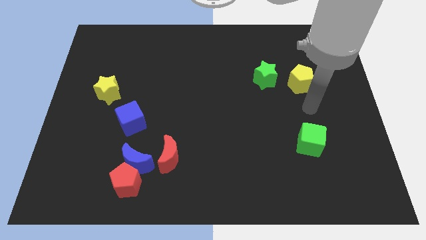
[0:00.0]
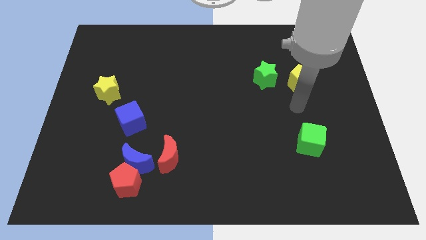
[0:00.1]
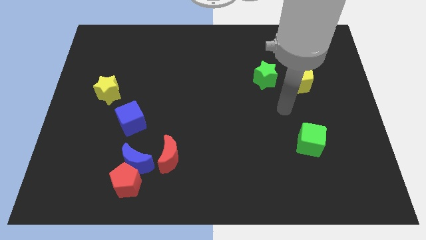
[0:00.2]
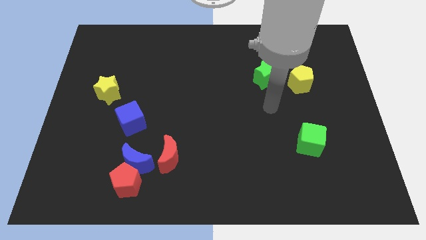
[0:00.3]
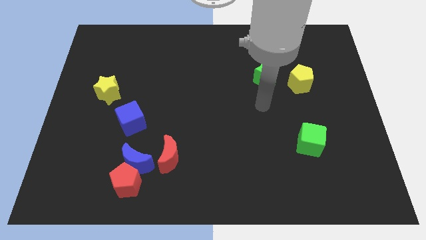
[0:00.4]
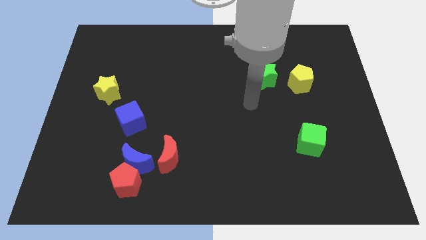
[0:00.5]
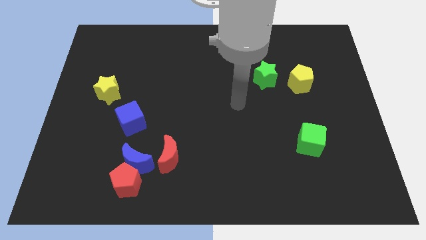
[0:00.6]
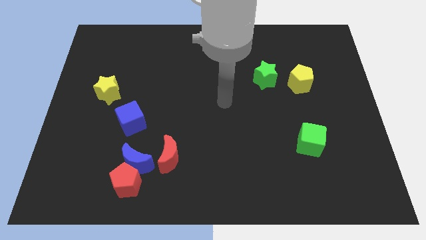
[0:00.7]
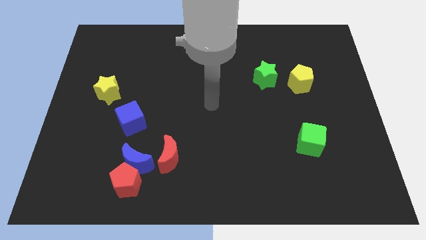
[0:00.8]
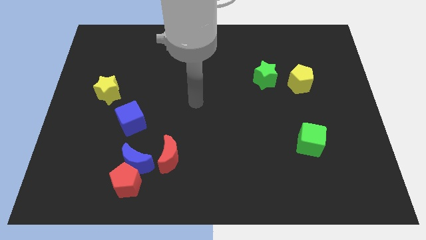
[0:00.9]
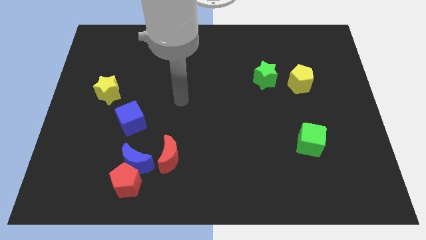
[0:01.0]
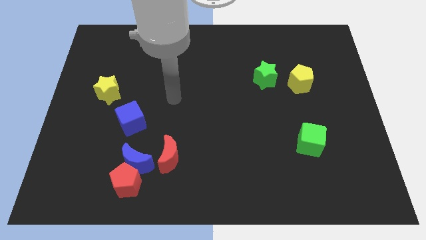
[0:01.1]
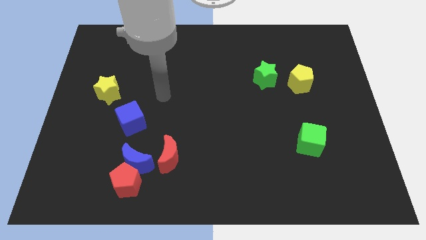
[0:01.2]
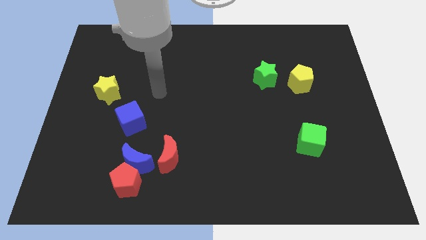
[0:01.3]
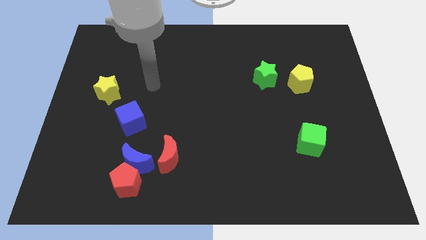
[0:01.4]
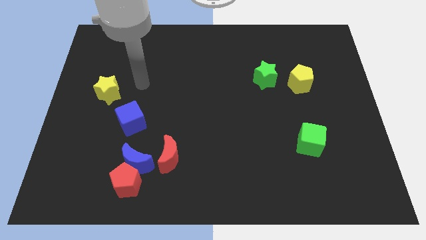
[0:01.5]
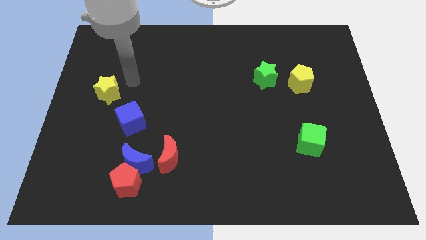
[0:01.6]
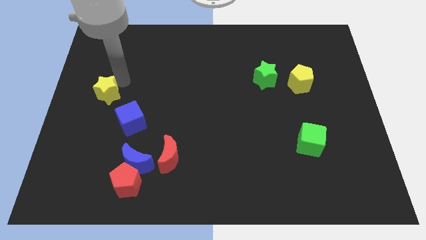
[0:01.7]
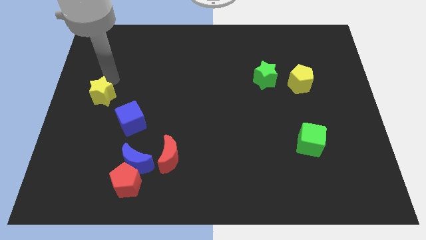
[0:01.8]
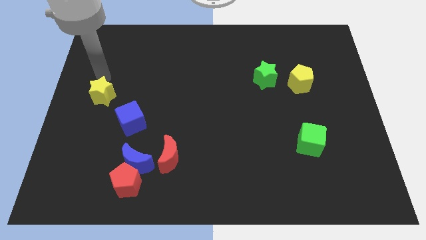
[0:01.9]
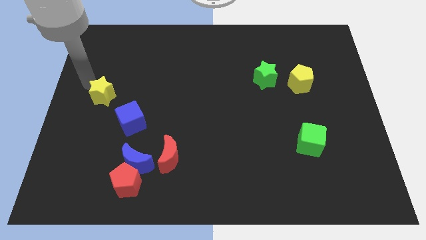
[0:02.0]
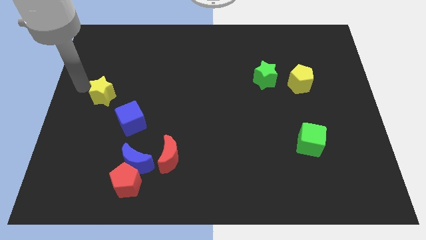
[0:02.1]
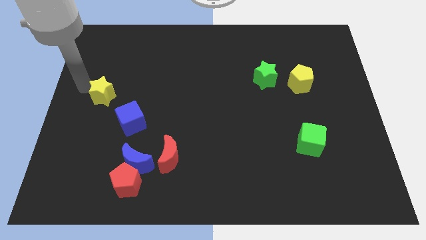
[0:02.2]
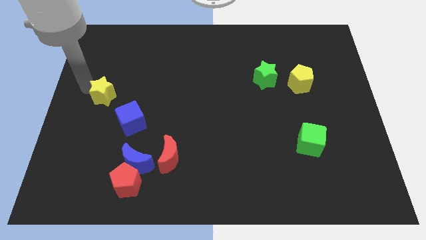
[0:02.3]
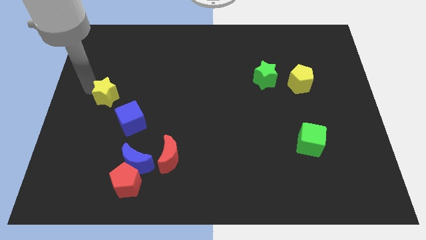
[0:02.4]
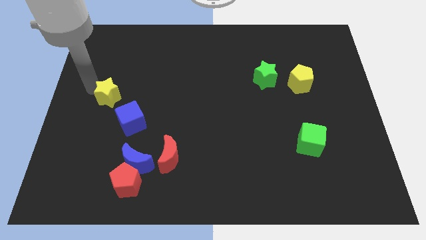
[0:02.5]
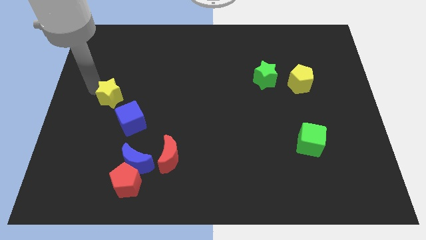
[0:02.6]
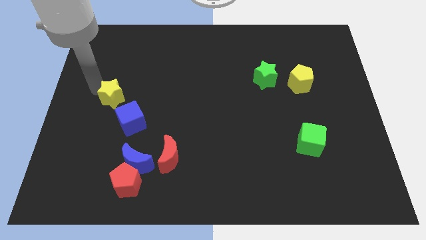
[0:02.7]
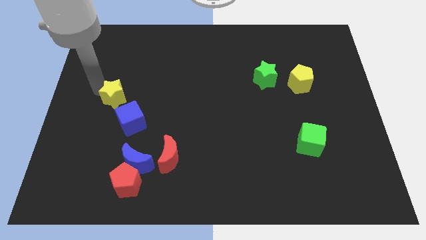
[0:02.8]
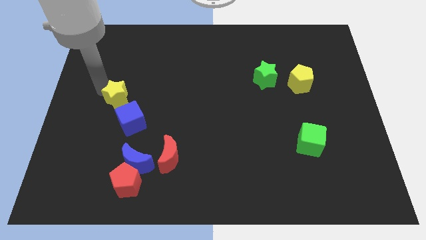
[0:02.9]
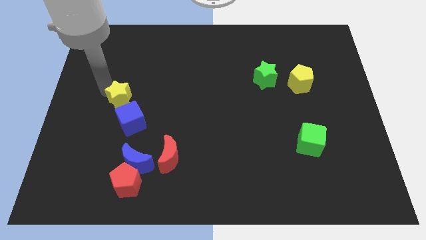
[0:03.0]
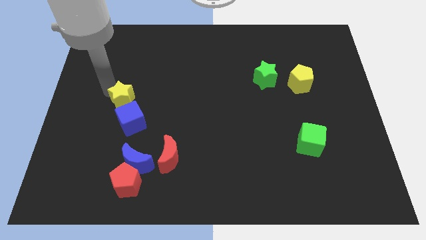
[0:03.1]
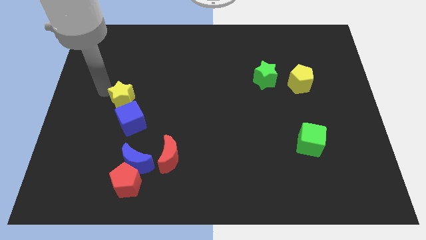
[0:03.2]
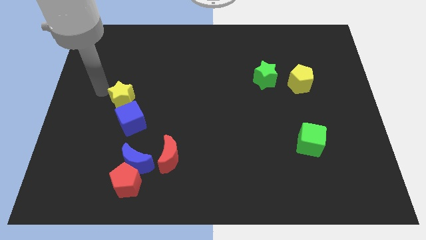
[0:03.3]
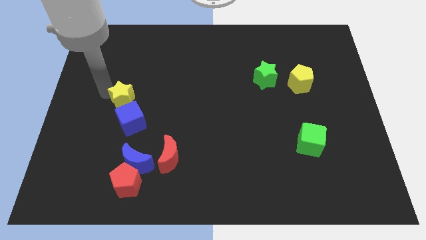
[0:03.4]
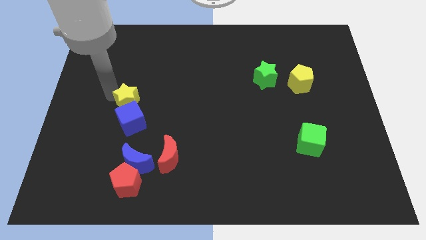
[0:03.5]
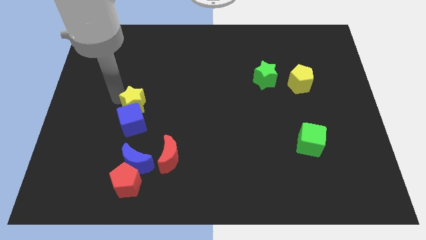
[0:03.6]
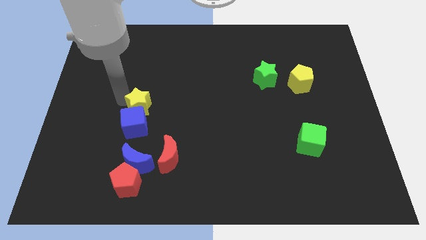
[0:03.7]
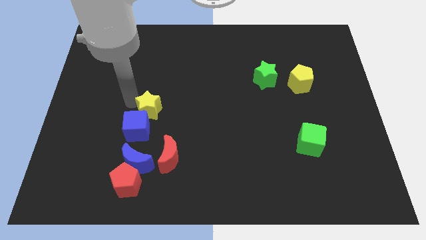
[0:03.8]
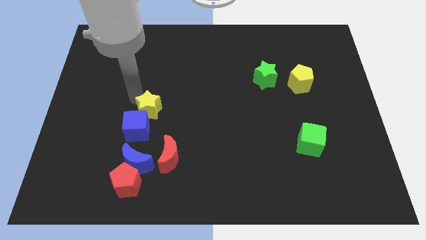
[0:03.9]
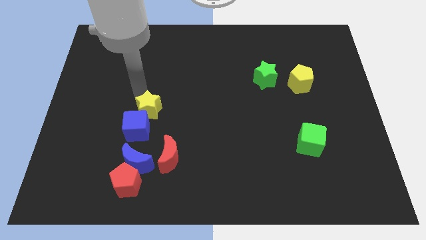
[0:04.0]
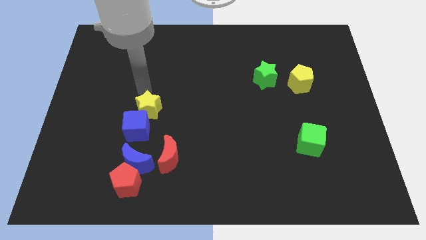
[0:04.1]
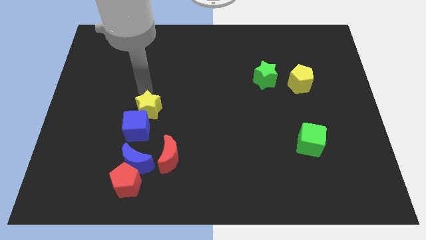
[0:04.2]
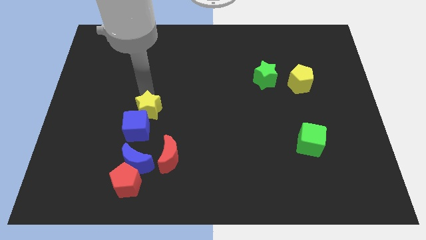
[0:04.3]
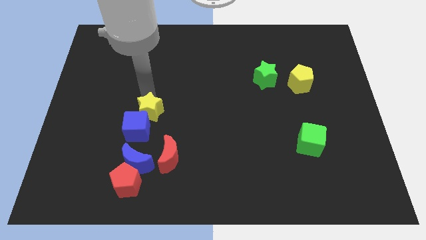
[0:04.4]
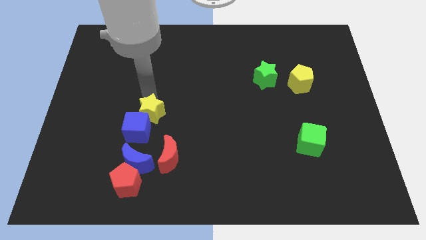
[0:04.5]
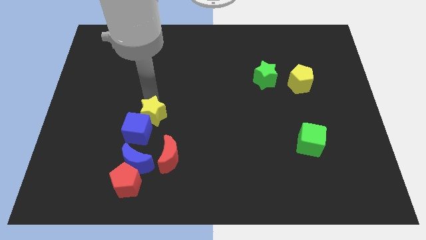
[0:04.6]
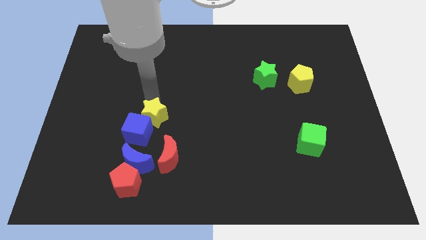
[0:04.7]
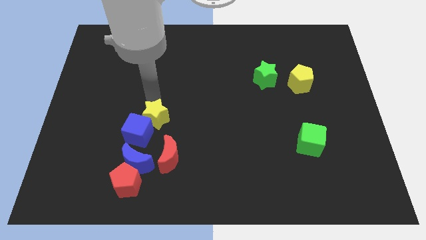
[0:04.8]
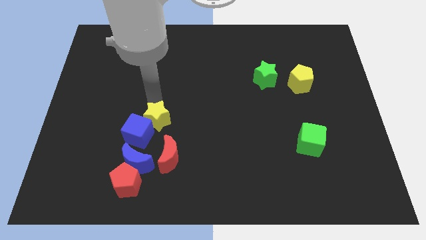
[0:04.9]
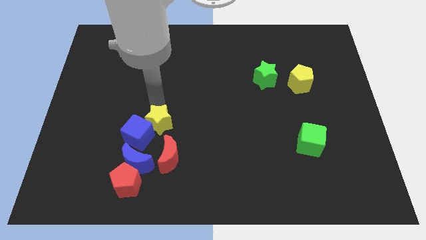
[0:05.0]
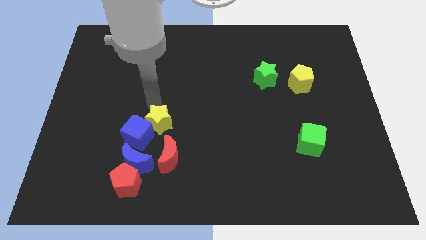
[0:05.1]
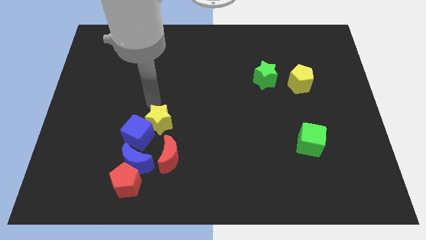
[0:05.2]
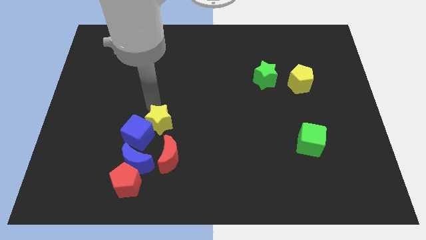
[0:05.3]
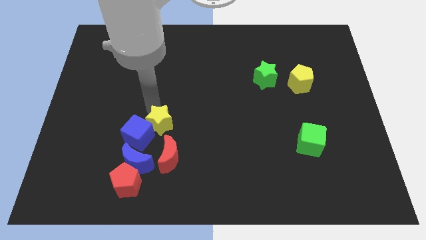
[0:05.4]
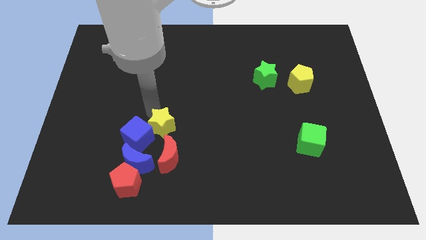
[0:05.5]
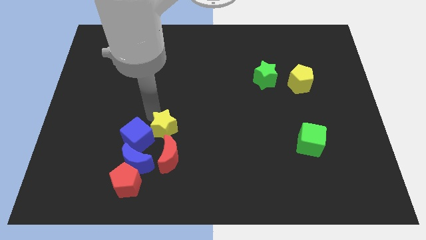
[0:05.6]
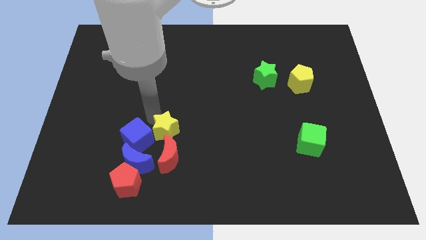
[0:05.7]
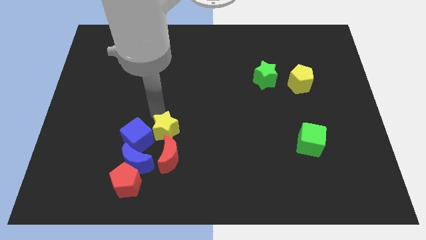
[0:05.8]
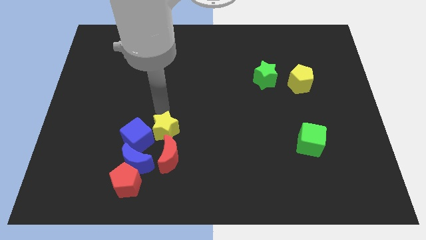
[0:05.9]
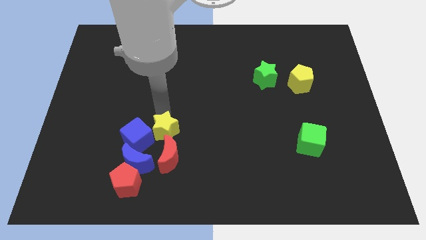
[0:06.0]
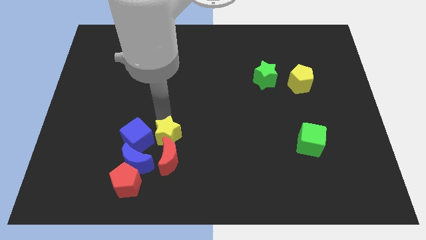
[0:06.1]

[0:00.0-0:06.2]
put the yellow star close to the red moon

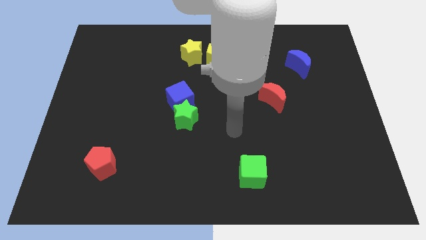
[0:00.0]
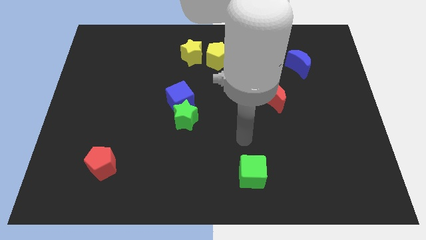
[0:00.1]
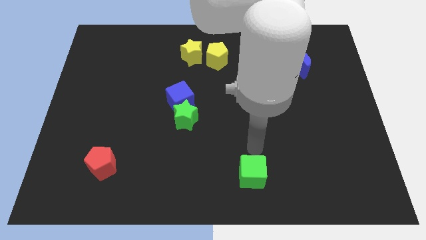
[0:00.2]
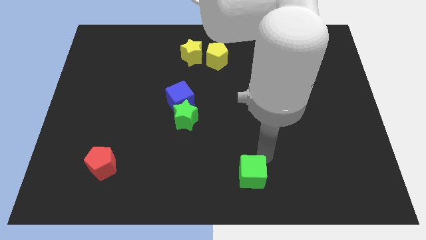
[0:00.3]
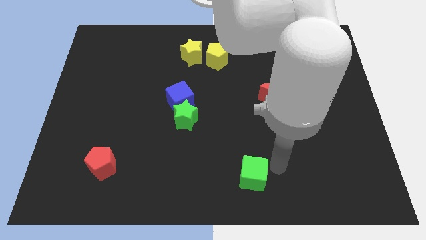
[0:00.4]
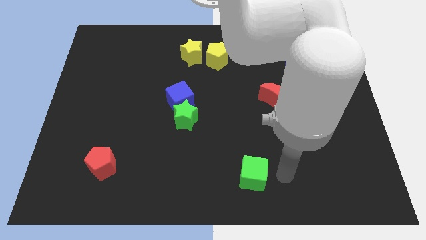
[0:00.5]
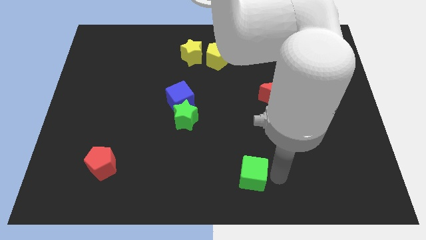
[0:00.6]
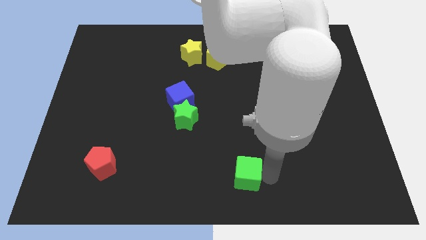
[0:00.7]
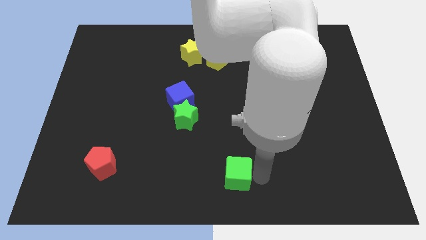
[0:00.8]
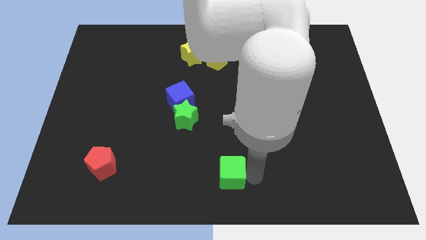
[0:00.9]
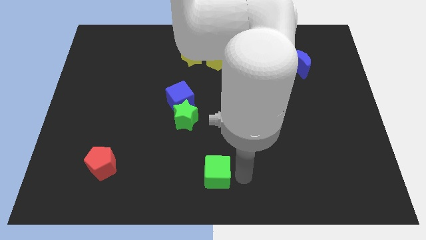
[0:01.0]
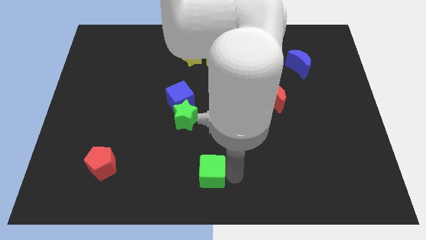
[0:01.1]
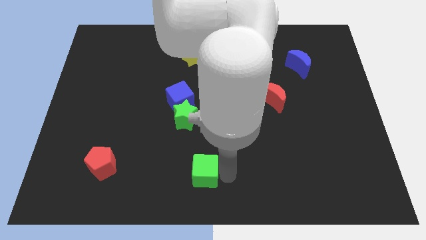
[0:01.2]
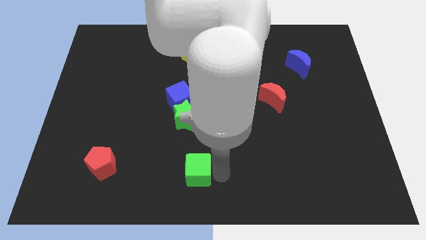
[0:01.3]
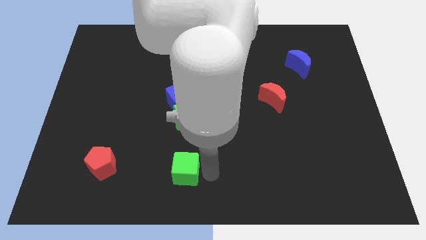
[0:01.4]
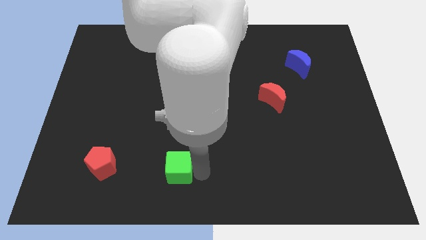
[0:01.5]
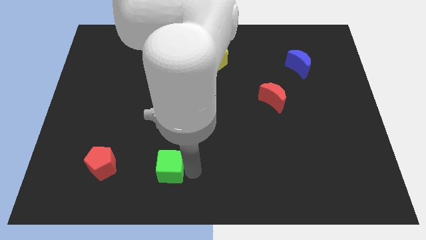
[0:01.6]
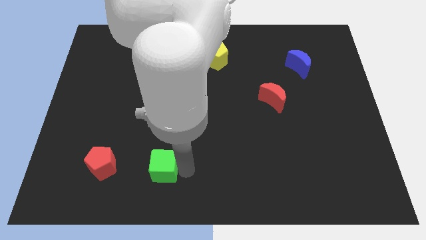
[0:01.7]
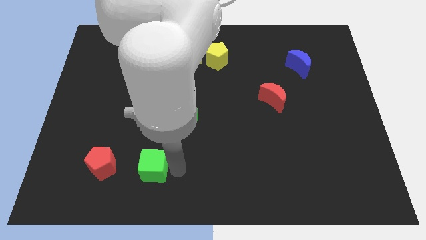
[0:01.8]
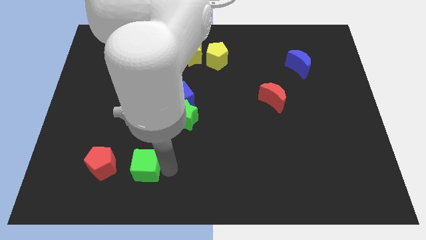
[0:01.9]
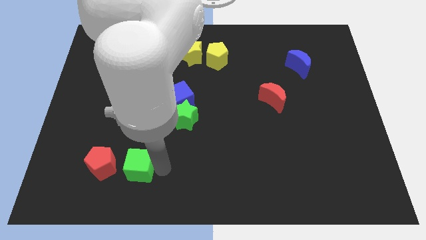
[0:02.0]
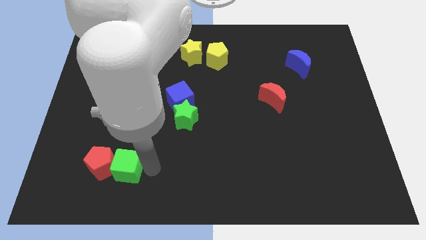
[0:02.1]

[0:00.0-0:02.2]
slide the green cube towards the red pentagon
